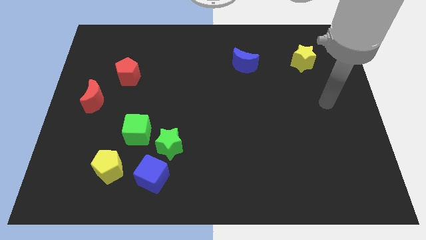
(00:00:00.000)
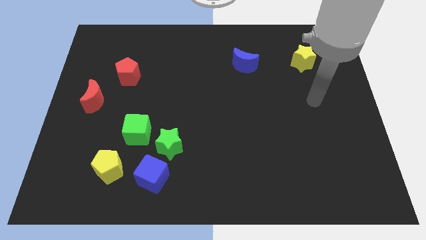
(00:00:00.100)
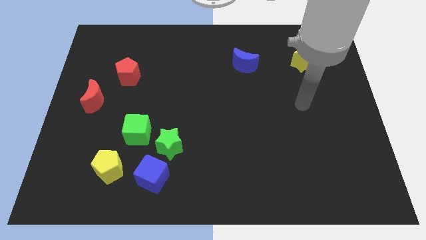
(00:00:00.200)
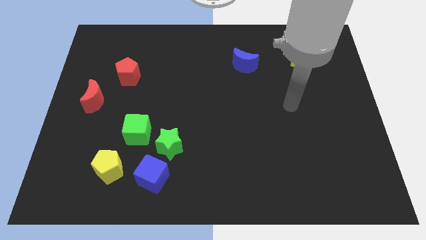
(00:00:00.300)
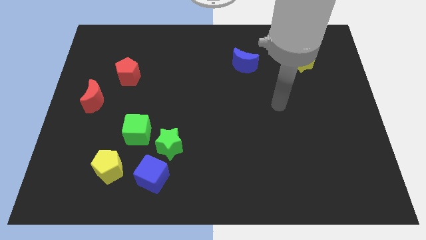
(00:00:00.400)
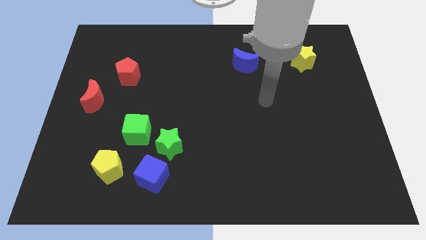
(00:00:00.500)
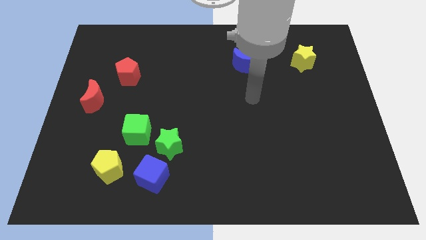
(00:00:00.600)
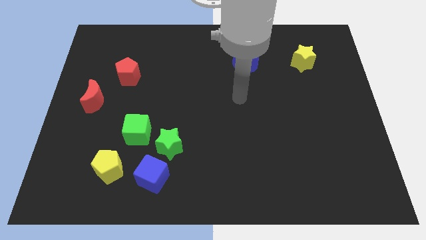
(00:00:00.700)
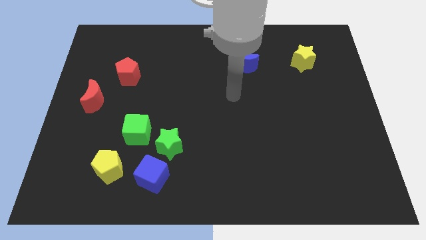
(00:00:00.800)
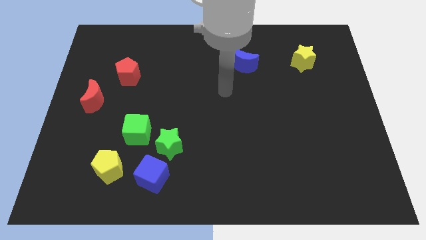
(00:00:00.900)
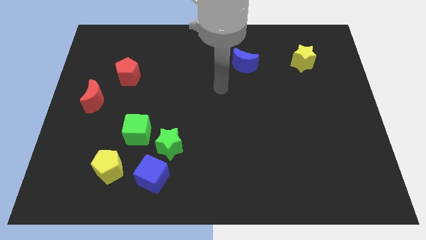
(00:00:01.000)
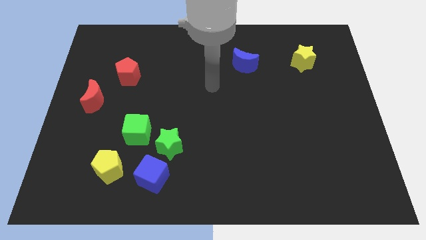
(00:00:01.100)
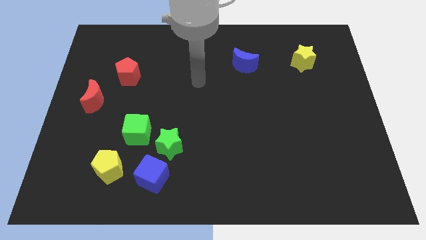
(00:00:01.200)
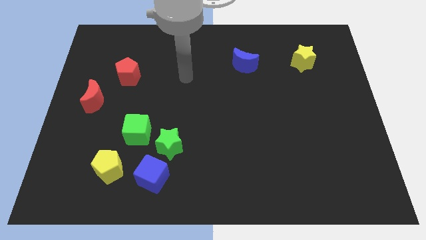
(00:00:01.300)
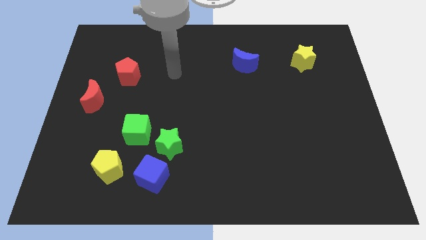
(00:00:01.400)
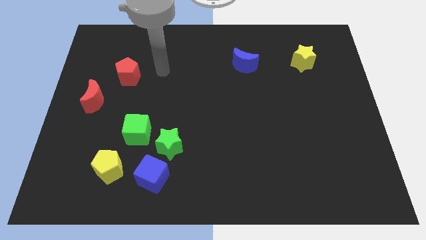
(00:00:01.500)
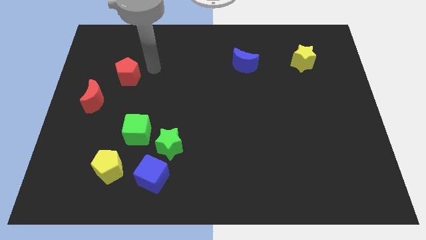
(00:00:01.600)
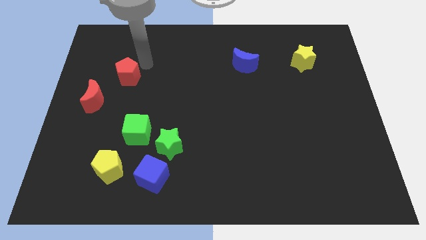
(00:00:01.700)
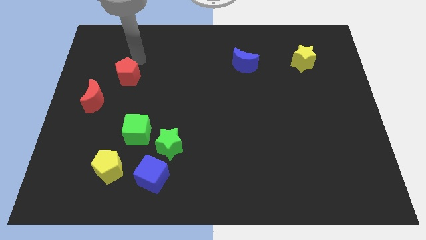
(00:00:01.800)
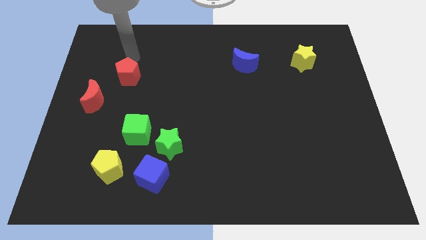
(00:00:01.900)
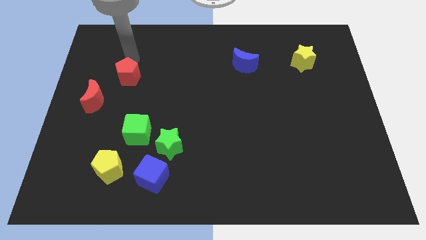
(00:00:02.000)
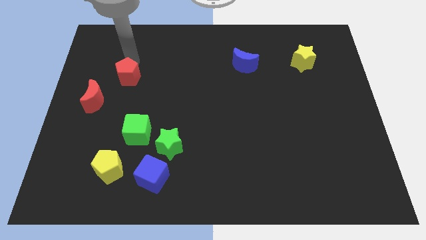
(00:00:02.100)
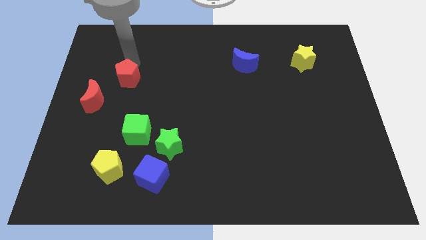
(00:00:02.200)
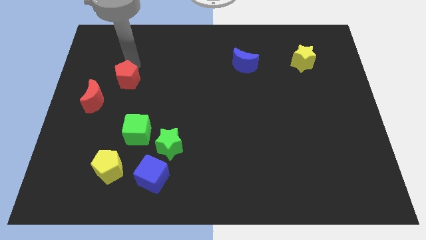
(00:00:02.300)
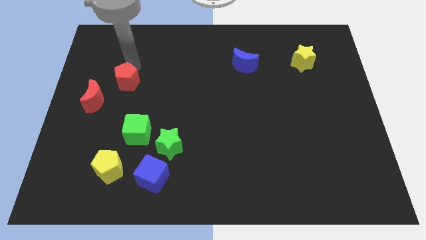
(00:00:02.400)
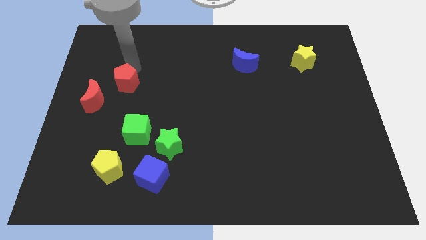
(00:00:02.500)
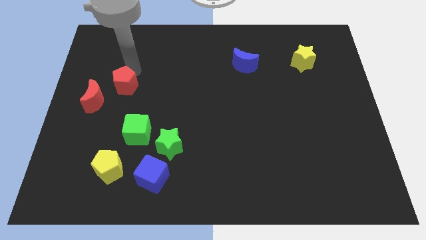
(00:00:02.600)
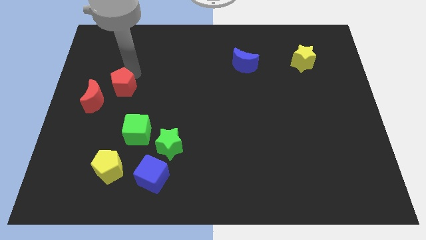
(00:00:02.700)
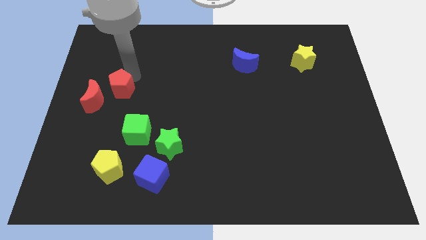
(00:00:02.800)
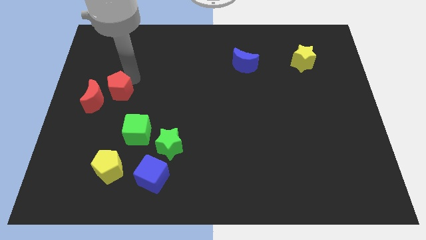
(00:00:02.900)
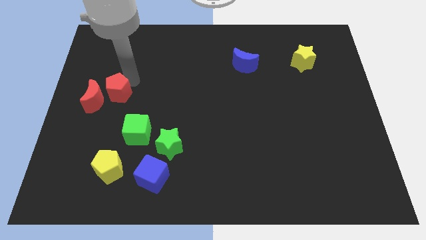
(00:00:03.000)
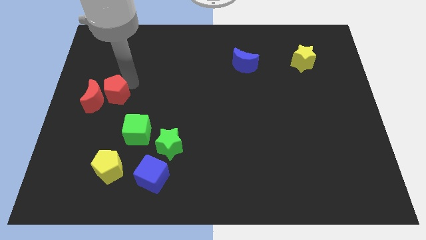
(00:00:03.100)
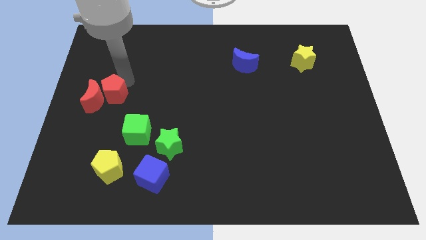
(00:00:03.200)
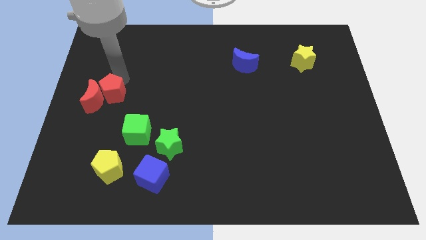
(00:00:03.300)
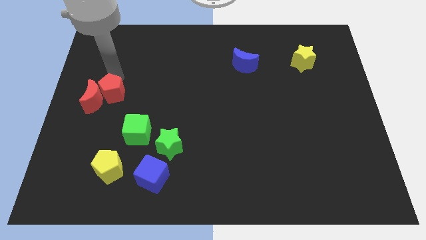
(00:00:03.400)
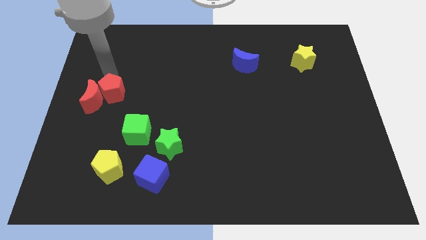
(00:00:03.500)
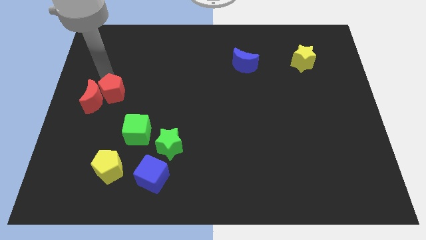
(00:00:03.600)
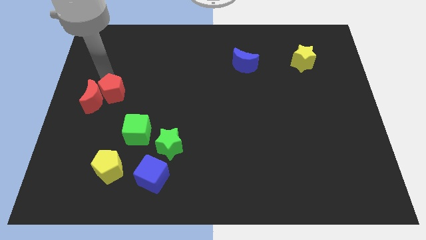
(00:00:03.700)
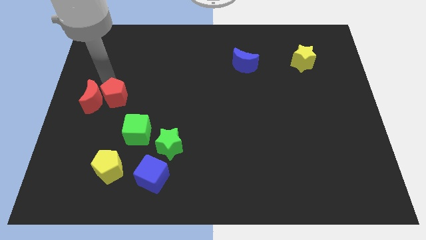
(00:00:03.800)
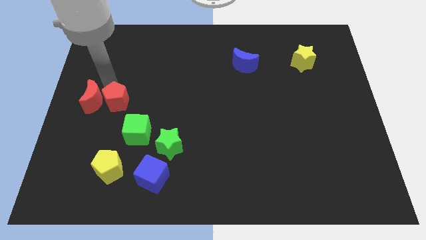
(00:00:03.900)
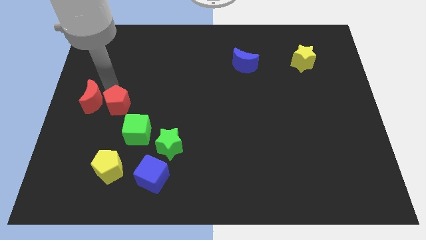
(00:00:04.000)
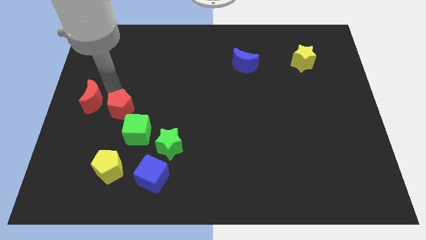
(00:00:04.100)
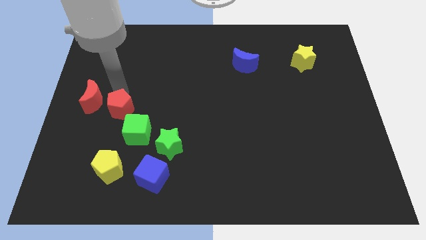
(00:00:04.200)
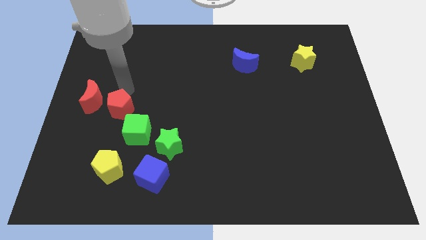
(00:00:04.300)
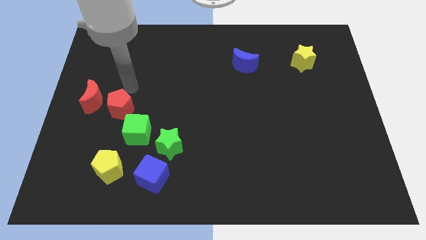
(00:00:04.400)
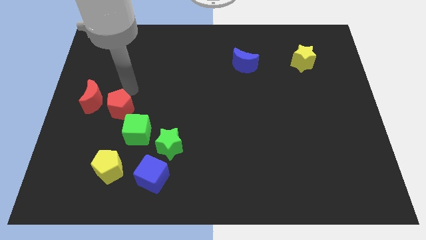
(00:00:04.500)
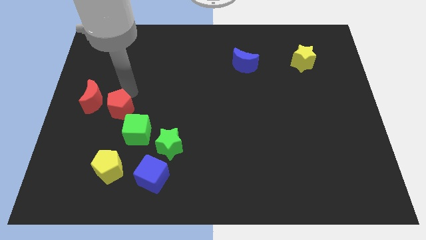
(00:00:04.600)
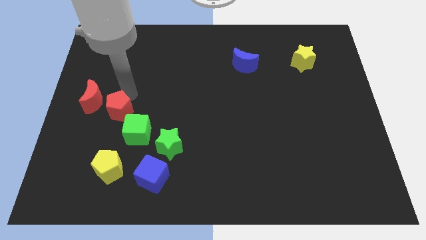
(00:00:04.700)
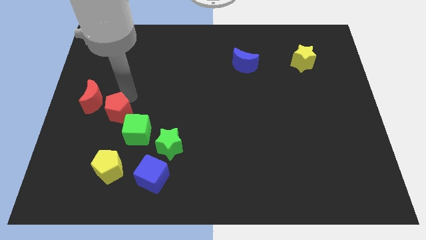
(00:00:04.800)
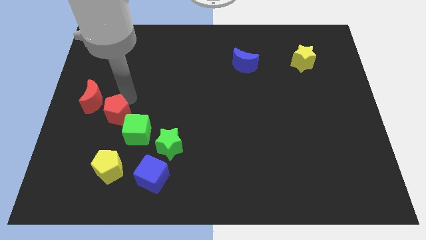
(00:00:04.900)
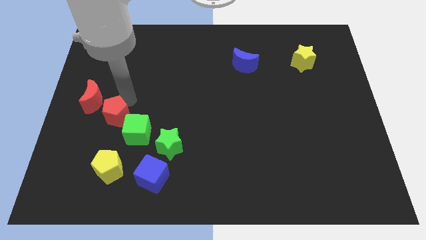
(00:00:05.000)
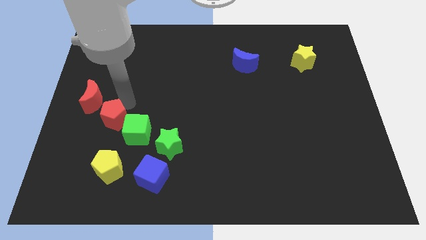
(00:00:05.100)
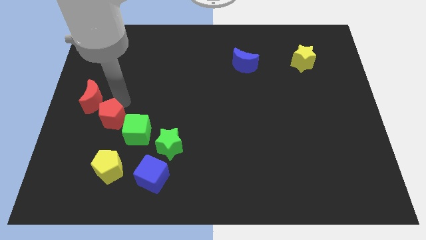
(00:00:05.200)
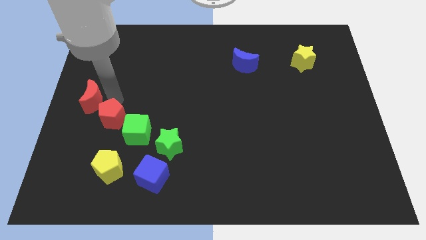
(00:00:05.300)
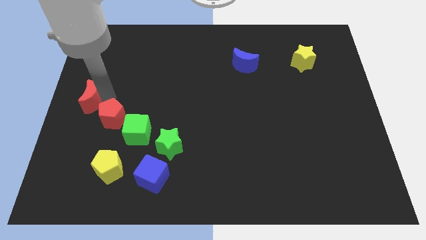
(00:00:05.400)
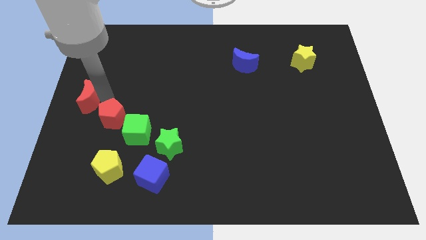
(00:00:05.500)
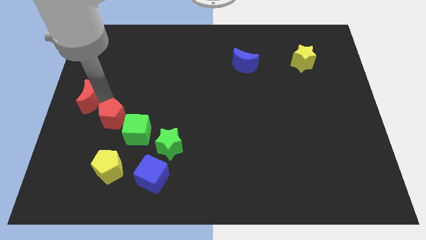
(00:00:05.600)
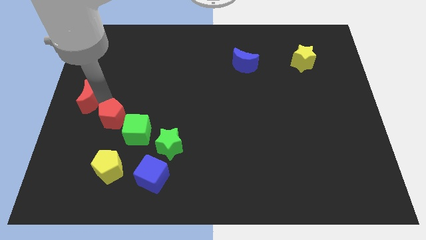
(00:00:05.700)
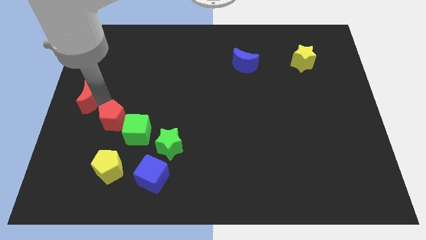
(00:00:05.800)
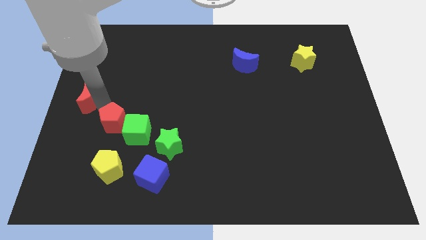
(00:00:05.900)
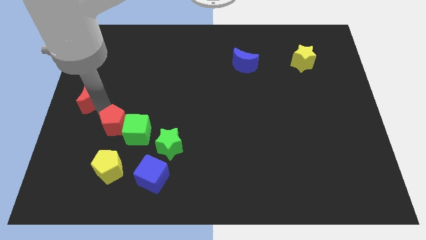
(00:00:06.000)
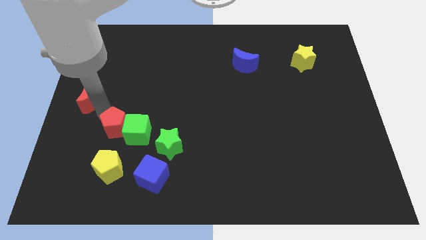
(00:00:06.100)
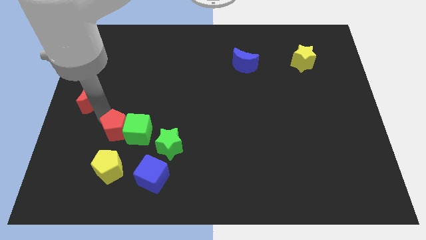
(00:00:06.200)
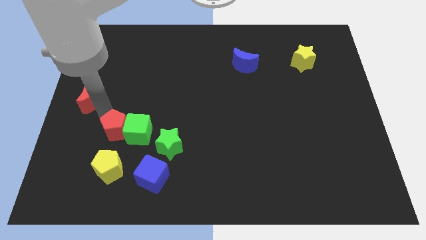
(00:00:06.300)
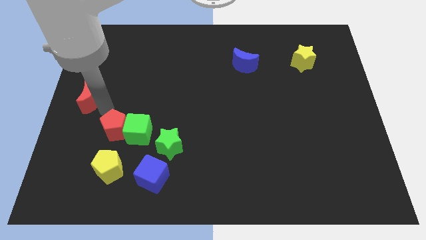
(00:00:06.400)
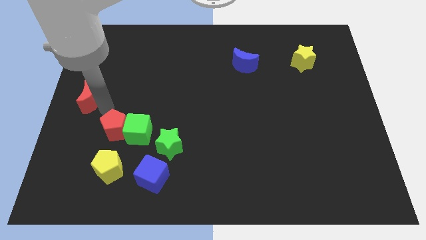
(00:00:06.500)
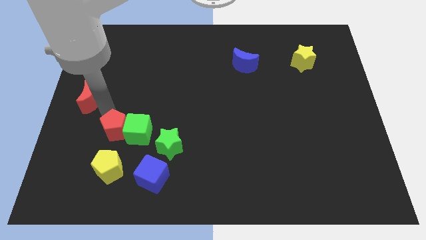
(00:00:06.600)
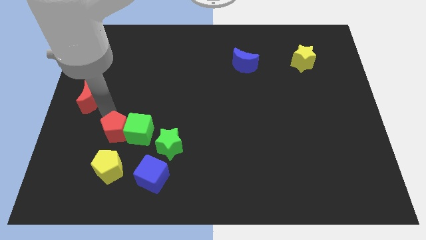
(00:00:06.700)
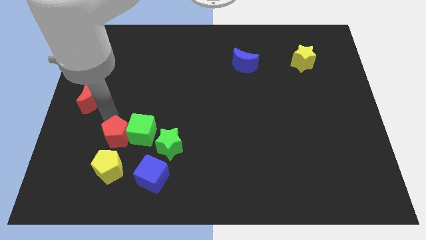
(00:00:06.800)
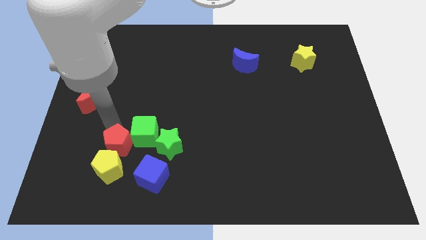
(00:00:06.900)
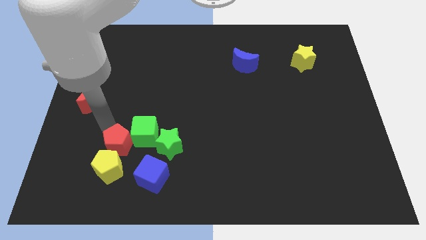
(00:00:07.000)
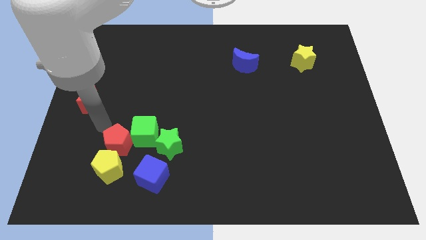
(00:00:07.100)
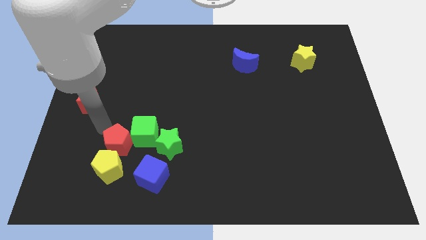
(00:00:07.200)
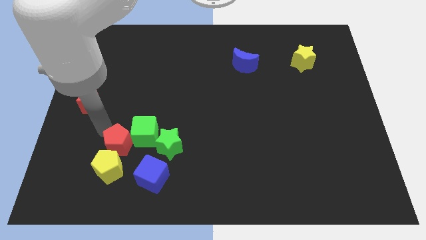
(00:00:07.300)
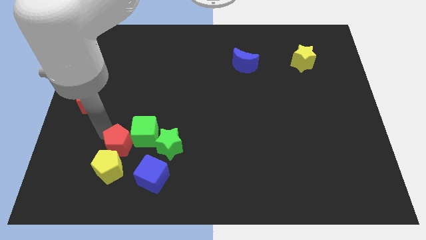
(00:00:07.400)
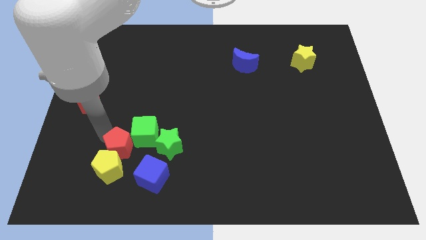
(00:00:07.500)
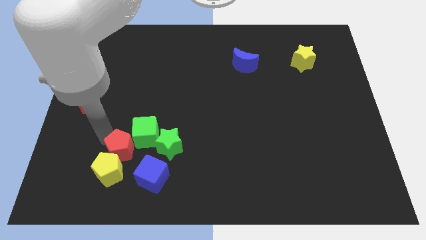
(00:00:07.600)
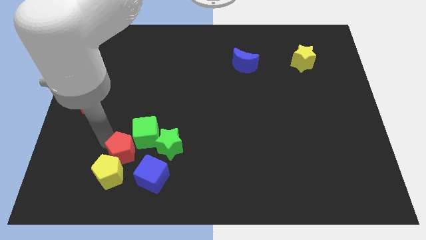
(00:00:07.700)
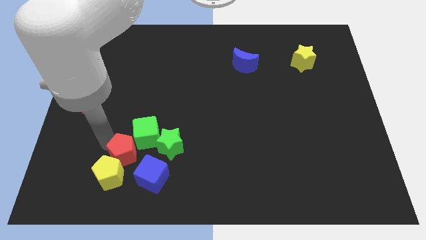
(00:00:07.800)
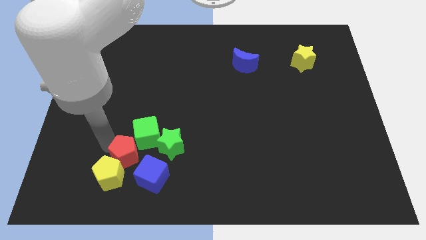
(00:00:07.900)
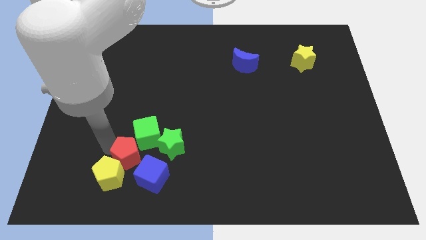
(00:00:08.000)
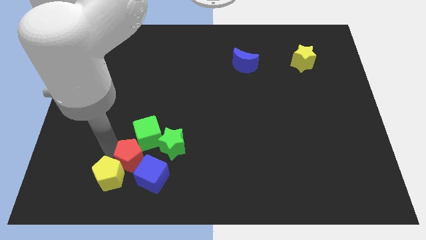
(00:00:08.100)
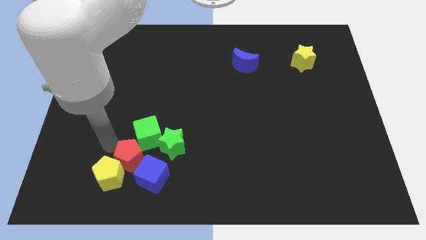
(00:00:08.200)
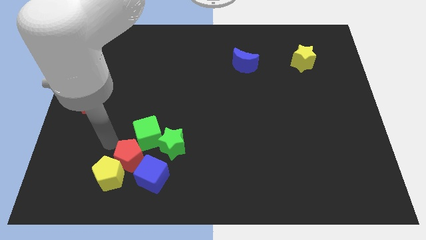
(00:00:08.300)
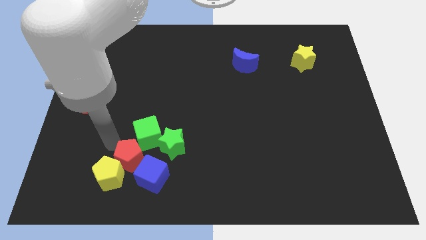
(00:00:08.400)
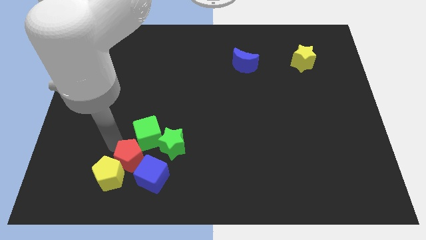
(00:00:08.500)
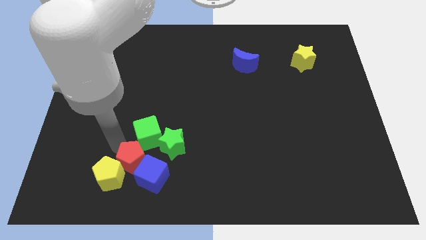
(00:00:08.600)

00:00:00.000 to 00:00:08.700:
push the red pentagon close to the blue cube
